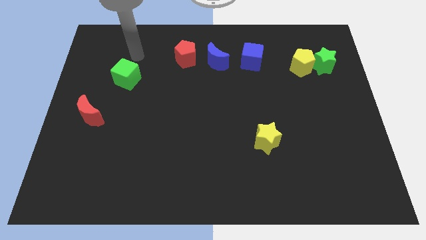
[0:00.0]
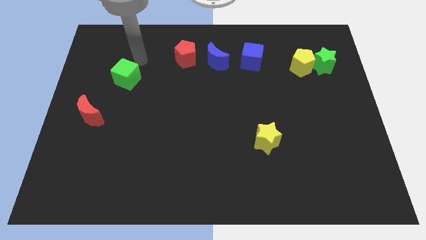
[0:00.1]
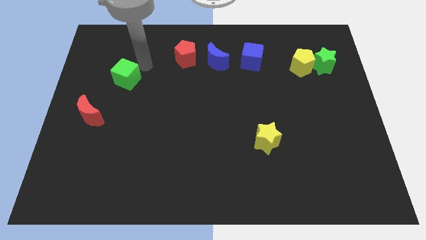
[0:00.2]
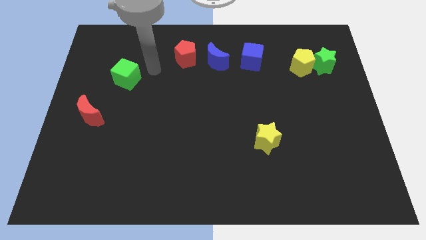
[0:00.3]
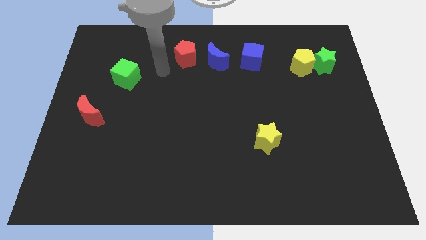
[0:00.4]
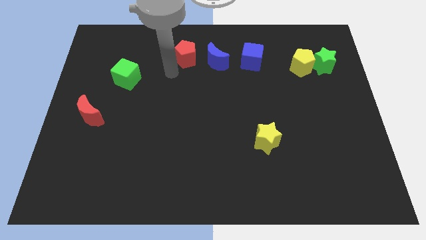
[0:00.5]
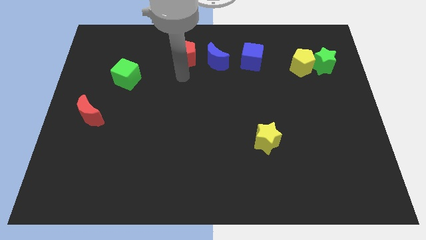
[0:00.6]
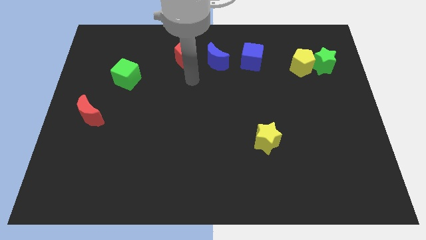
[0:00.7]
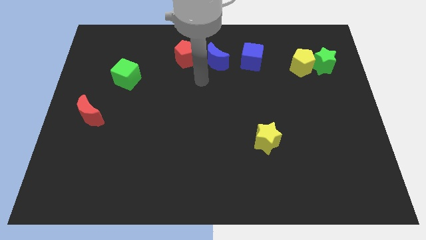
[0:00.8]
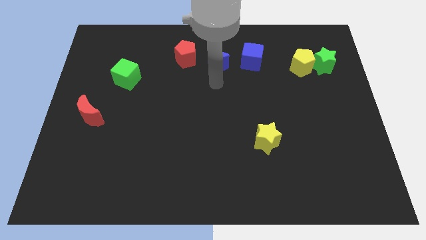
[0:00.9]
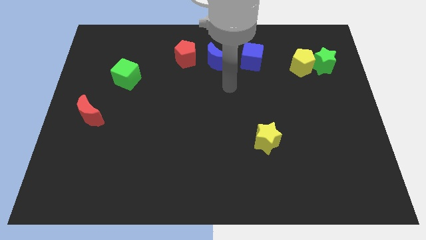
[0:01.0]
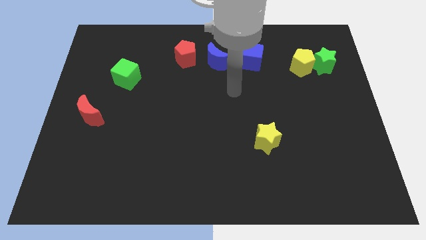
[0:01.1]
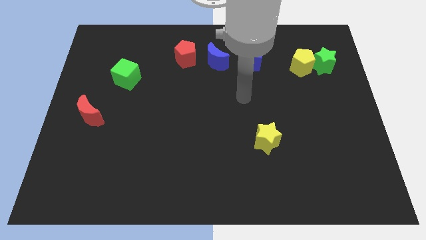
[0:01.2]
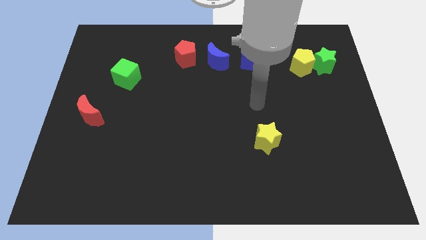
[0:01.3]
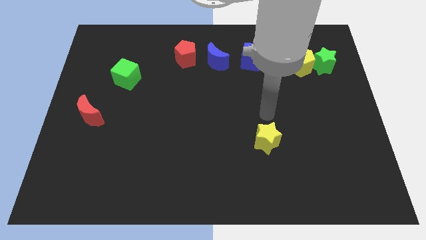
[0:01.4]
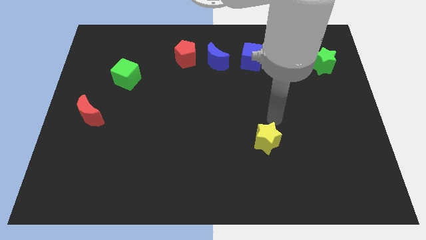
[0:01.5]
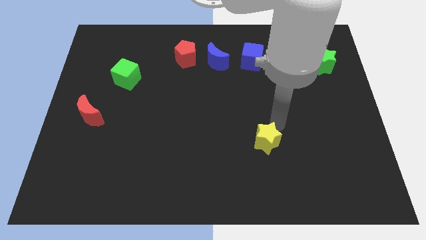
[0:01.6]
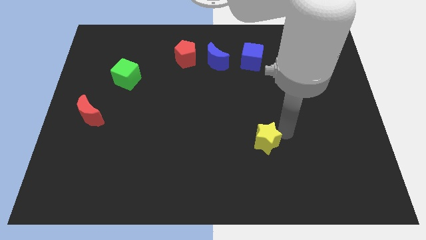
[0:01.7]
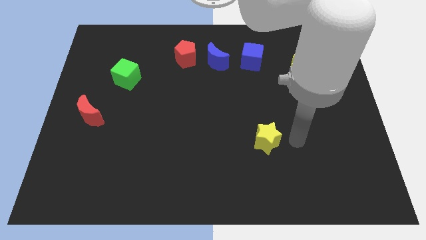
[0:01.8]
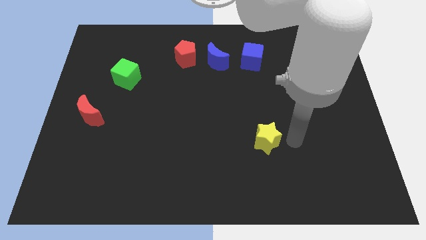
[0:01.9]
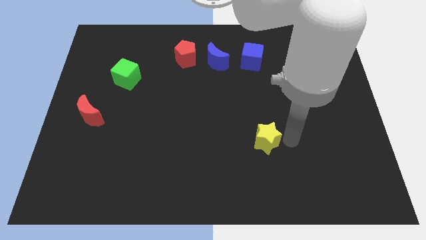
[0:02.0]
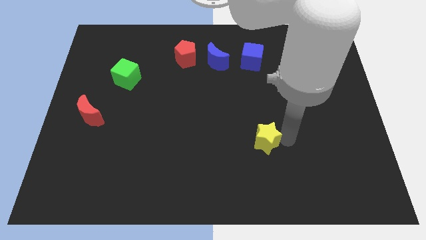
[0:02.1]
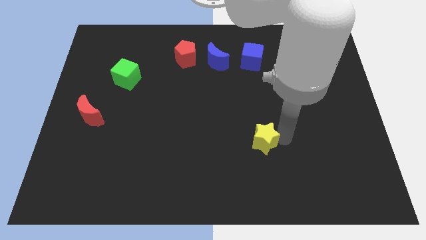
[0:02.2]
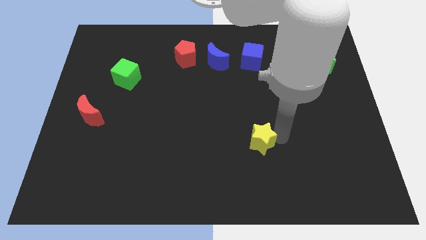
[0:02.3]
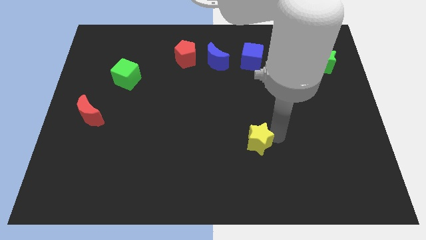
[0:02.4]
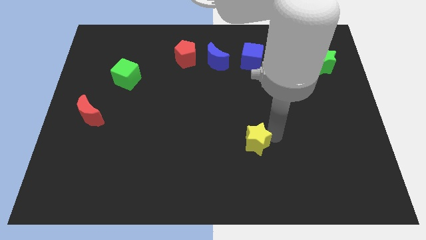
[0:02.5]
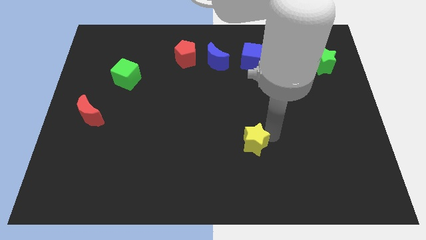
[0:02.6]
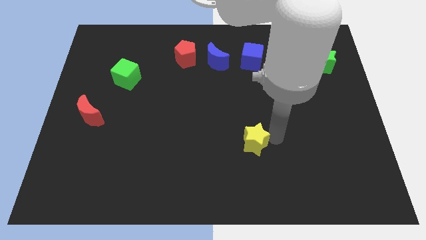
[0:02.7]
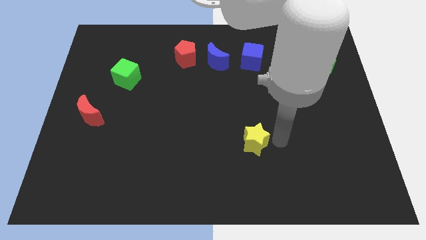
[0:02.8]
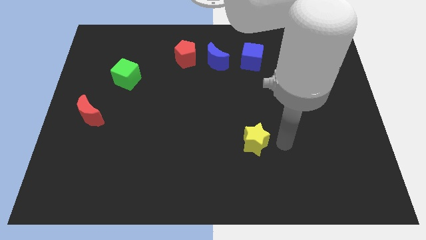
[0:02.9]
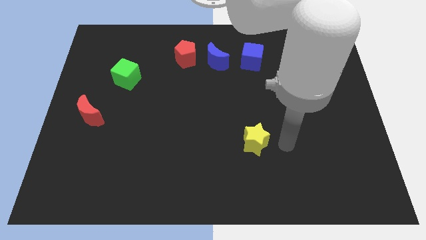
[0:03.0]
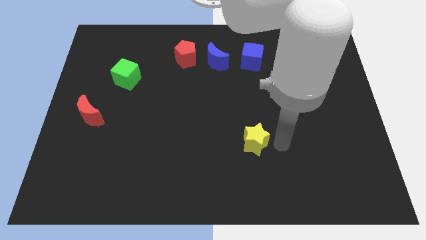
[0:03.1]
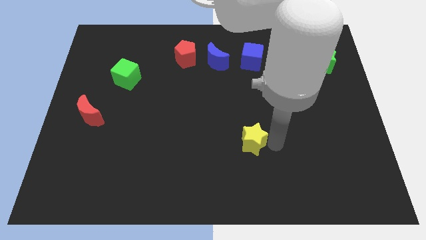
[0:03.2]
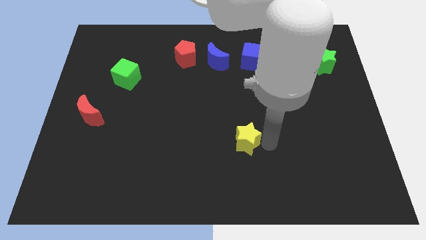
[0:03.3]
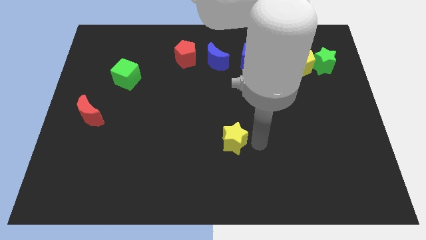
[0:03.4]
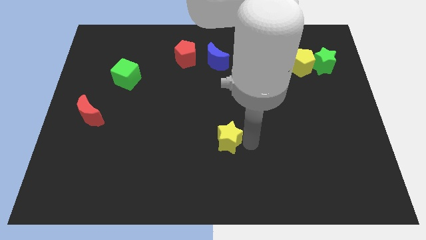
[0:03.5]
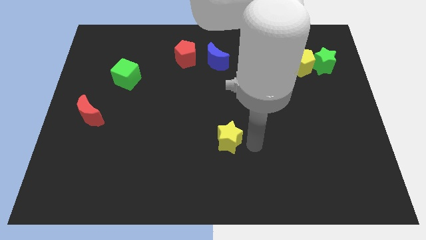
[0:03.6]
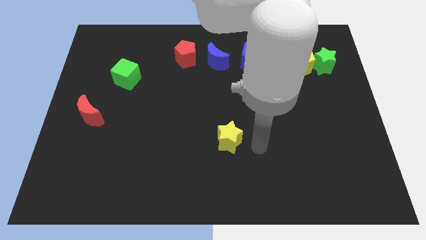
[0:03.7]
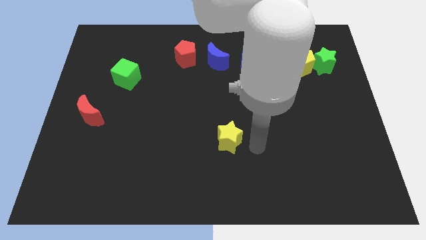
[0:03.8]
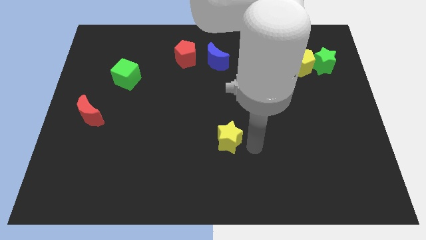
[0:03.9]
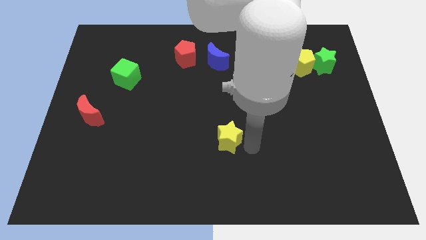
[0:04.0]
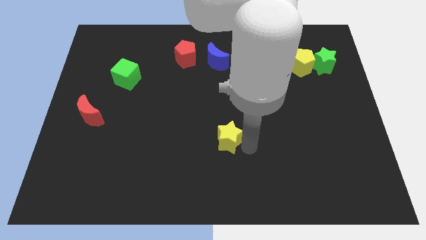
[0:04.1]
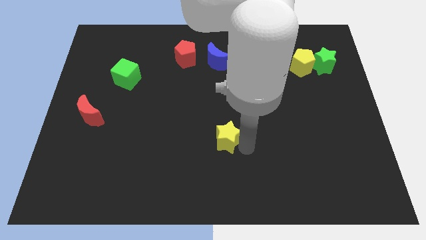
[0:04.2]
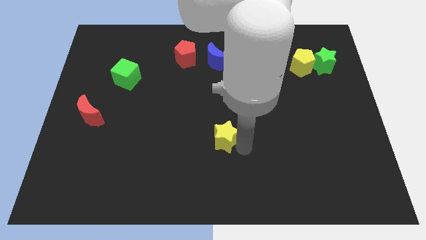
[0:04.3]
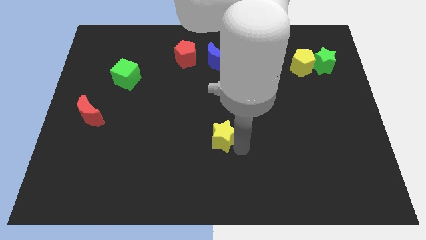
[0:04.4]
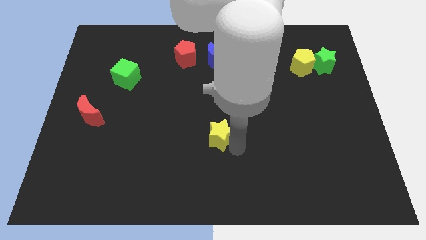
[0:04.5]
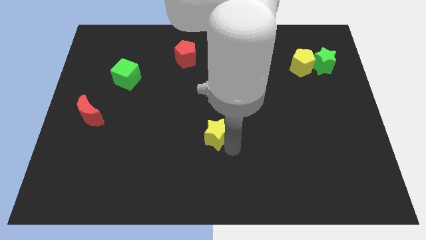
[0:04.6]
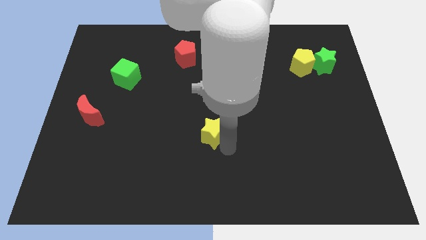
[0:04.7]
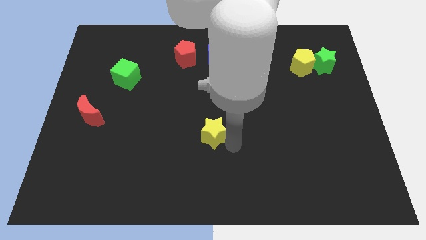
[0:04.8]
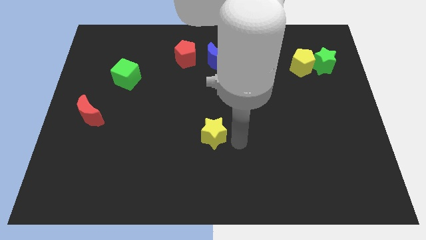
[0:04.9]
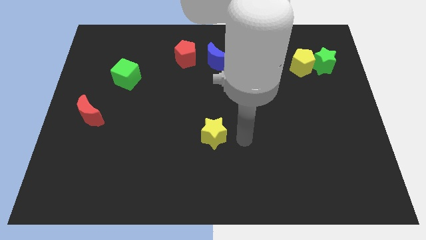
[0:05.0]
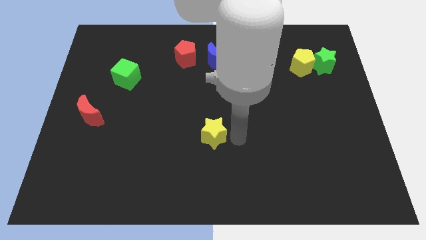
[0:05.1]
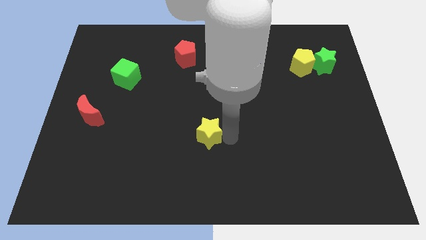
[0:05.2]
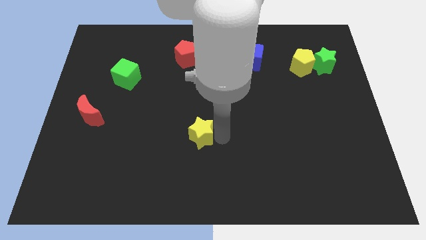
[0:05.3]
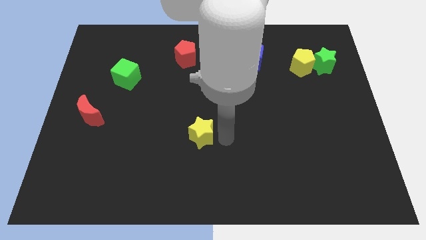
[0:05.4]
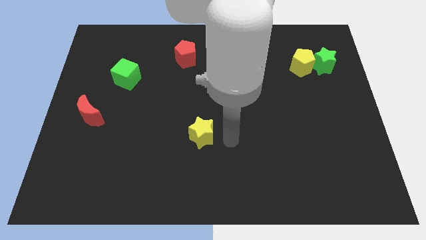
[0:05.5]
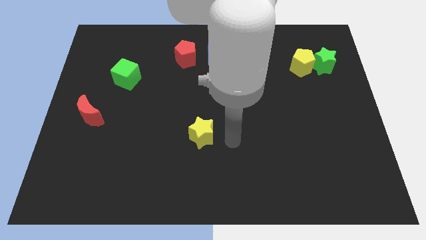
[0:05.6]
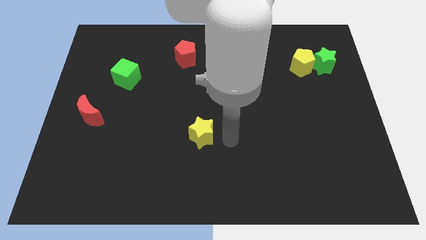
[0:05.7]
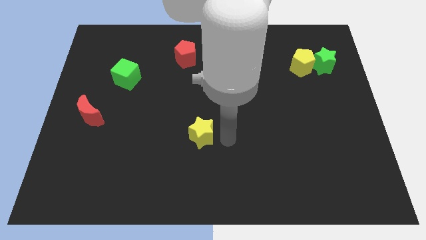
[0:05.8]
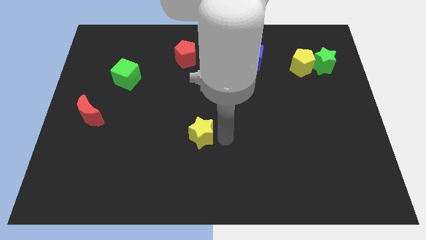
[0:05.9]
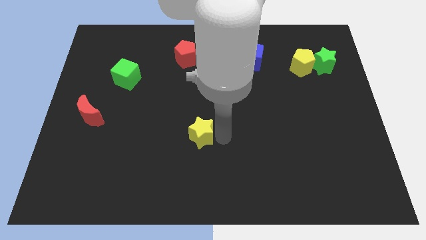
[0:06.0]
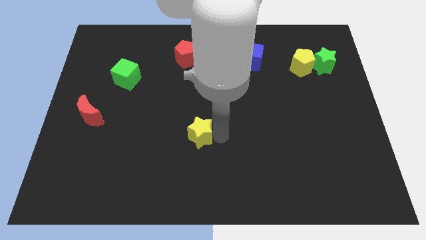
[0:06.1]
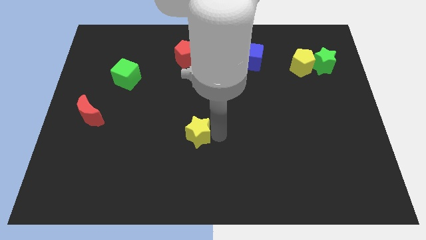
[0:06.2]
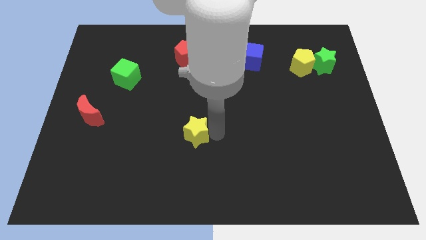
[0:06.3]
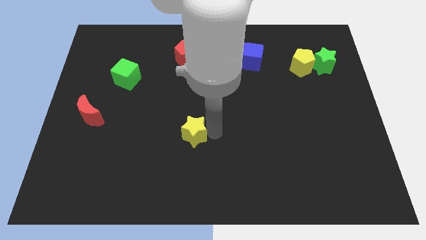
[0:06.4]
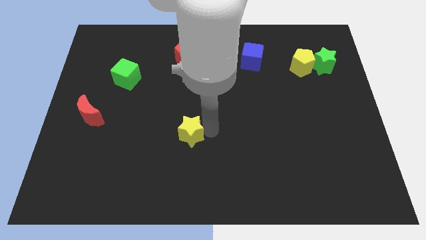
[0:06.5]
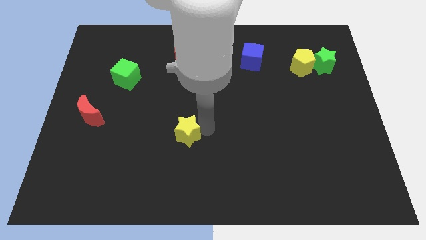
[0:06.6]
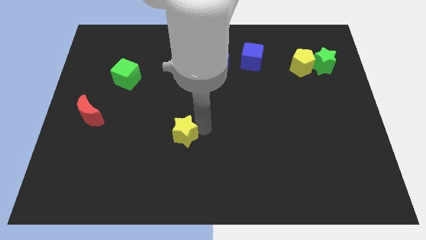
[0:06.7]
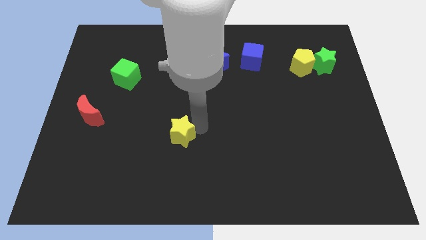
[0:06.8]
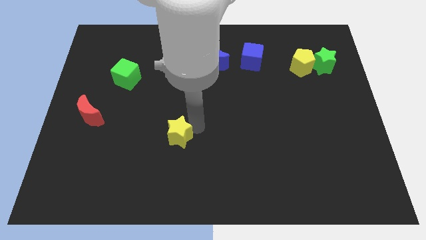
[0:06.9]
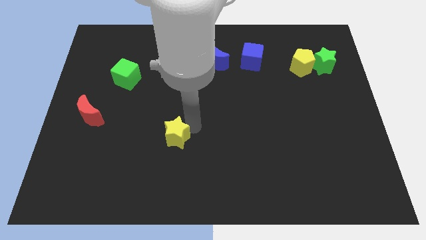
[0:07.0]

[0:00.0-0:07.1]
push the yellow star to the left

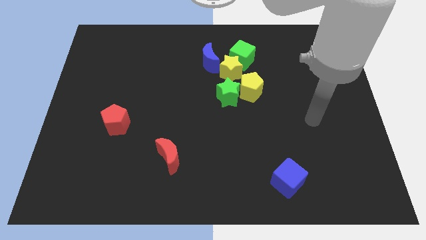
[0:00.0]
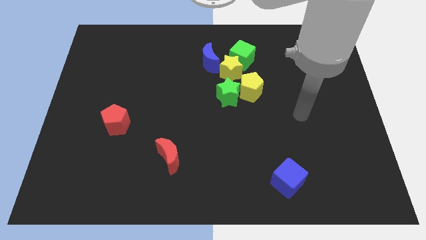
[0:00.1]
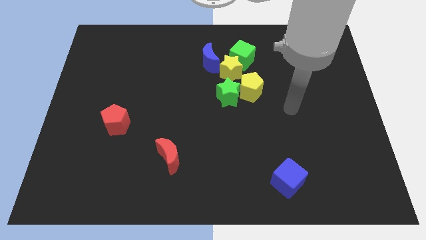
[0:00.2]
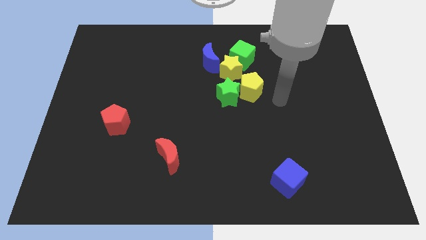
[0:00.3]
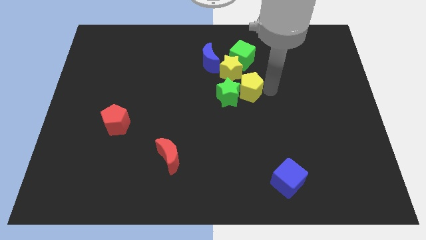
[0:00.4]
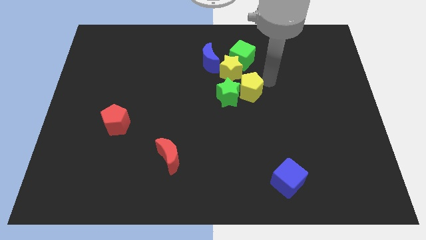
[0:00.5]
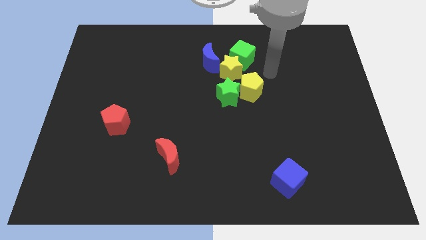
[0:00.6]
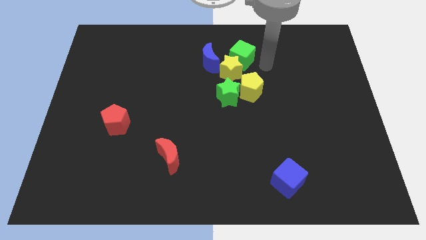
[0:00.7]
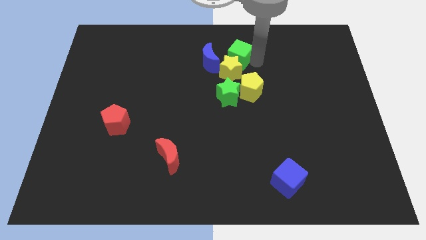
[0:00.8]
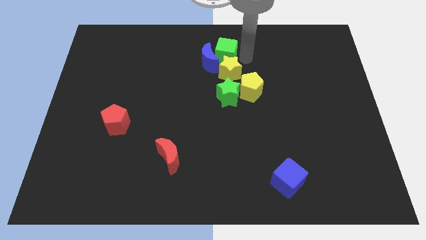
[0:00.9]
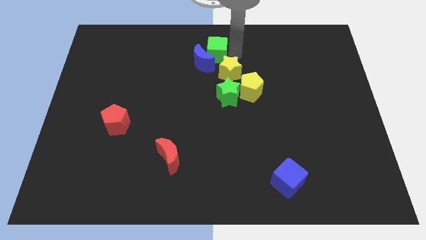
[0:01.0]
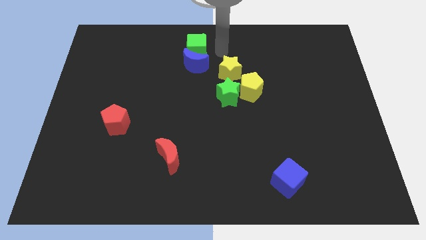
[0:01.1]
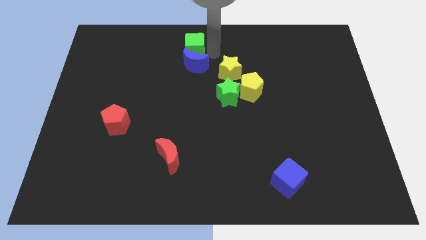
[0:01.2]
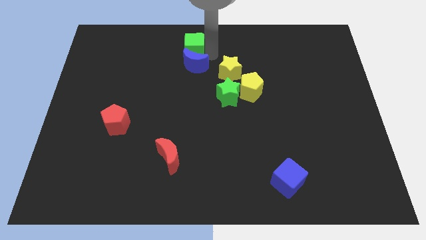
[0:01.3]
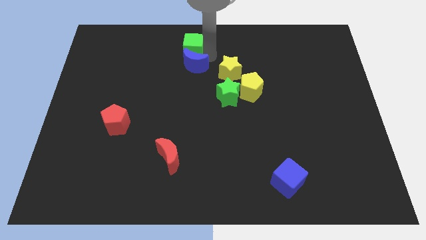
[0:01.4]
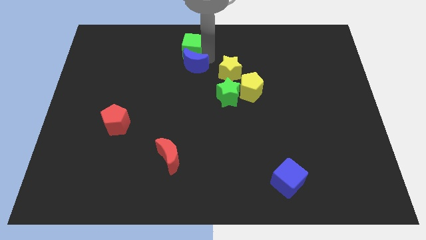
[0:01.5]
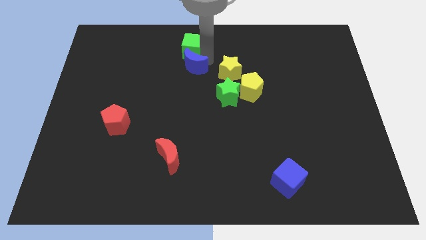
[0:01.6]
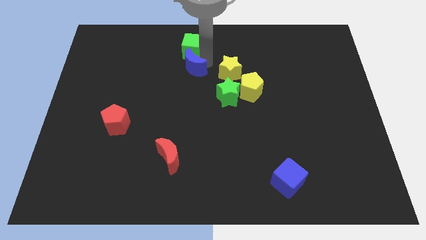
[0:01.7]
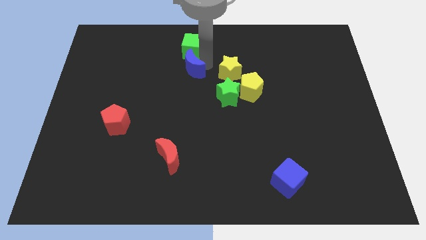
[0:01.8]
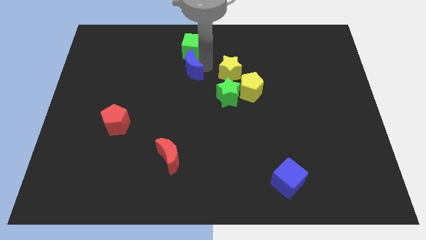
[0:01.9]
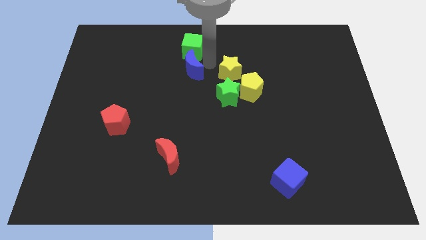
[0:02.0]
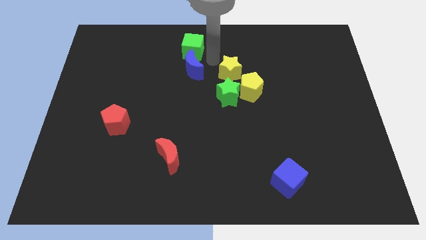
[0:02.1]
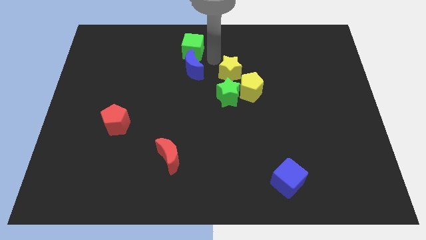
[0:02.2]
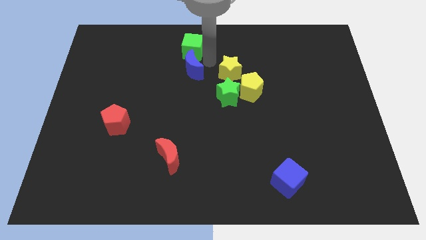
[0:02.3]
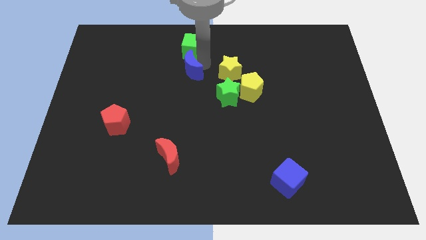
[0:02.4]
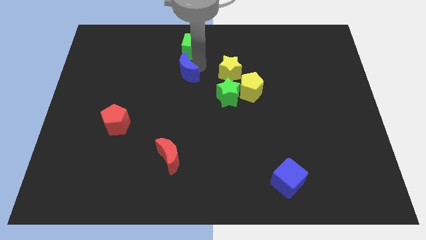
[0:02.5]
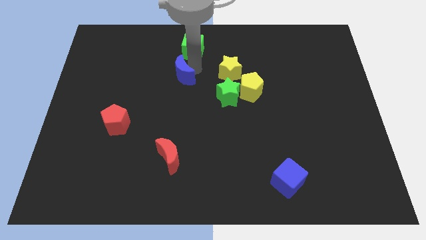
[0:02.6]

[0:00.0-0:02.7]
slide the blue moon somewhat downwards and left
